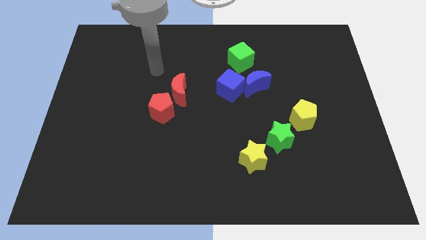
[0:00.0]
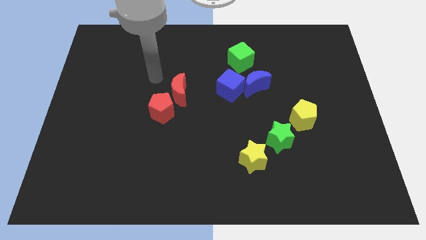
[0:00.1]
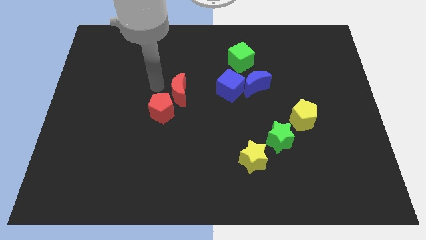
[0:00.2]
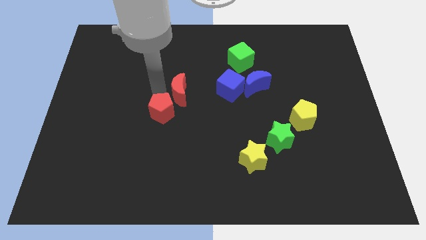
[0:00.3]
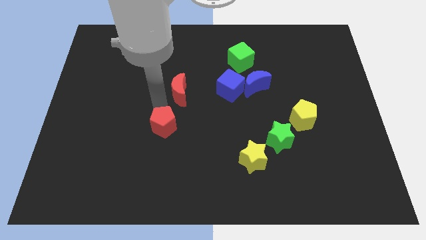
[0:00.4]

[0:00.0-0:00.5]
separate the red moon from the red pentagon

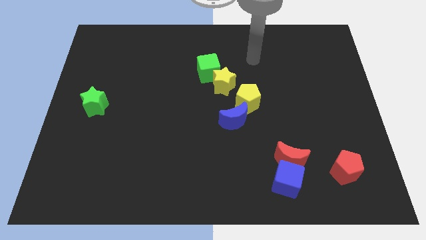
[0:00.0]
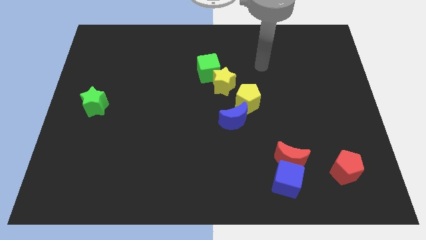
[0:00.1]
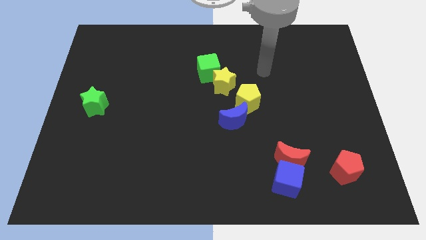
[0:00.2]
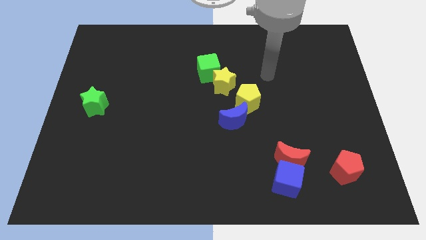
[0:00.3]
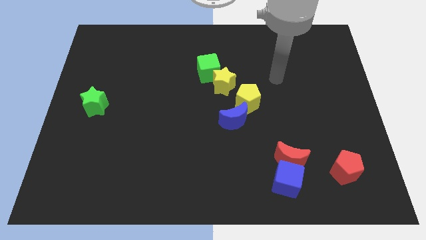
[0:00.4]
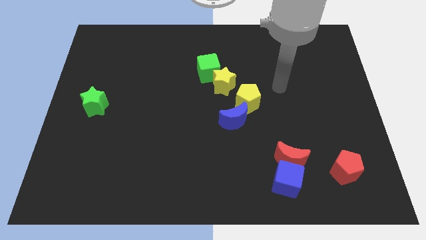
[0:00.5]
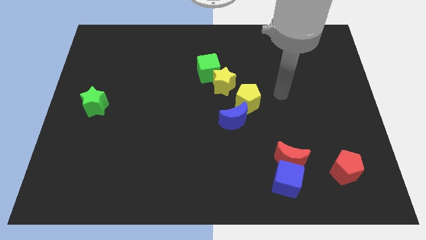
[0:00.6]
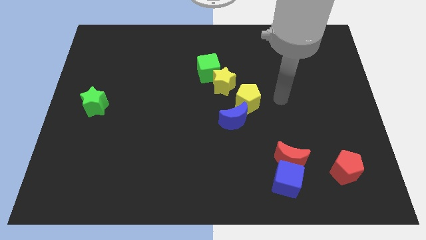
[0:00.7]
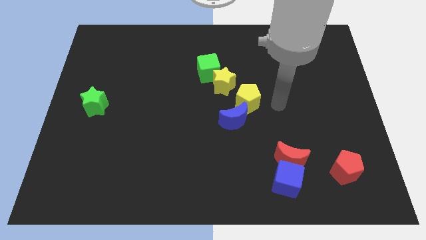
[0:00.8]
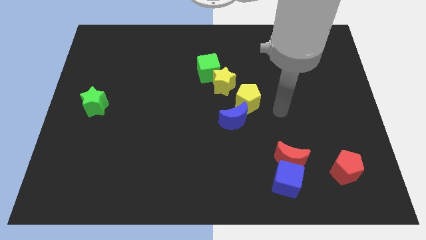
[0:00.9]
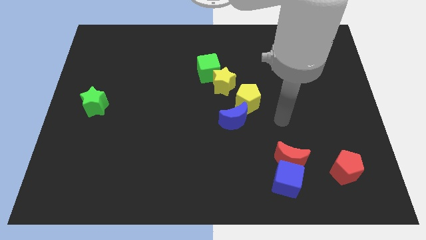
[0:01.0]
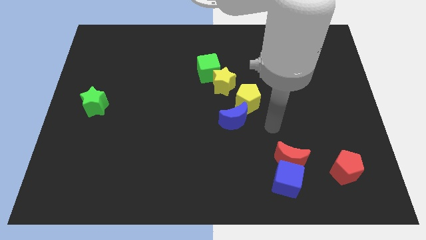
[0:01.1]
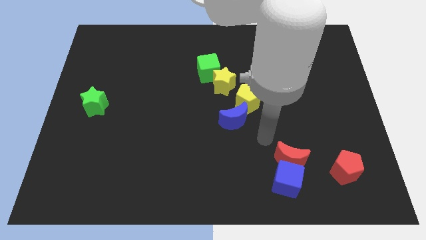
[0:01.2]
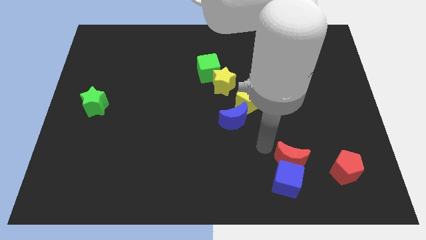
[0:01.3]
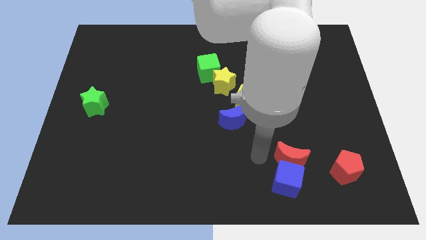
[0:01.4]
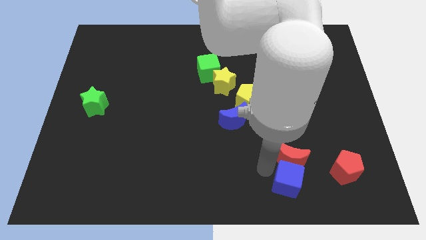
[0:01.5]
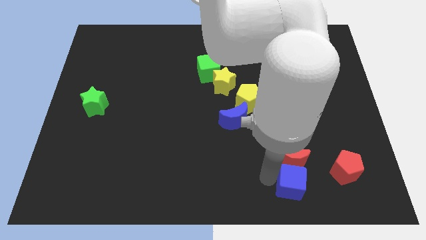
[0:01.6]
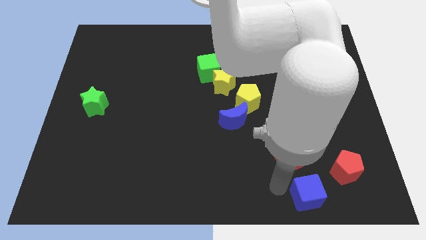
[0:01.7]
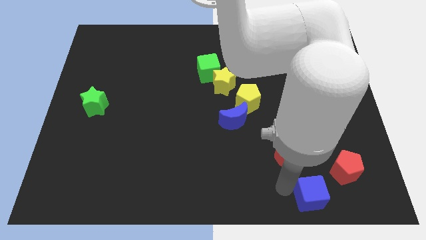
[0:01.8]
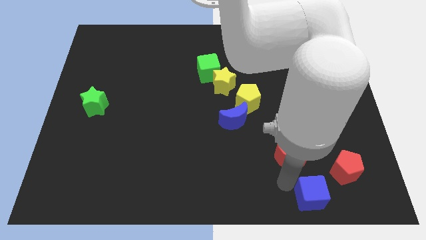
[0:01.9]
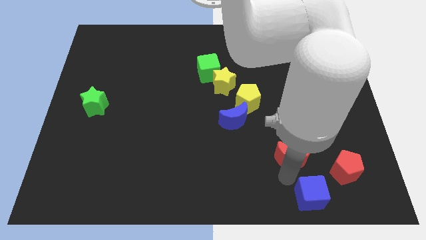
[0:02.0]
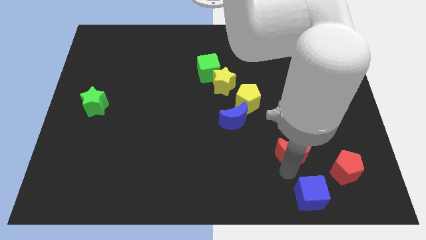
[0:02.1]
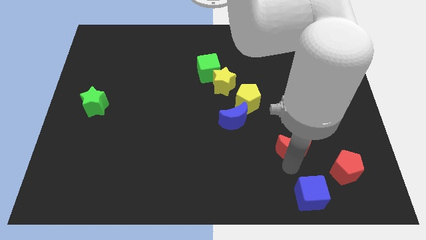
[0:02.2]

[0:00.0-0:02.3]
separate the red moon from the blue cube

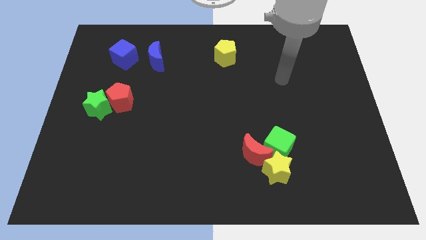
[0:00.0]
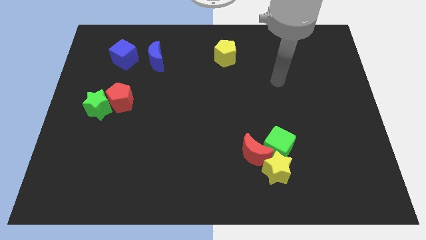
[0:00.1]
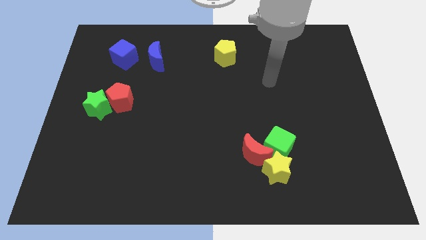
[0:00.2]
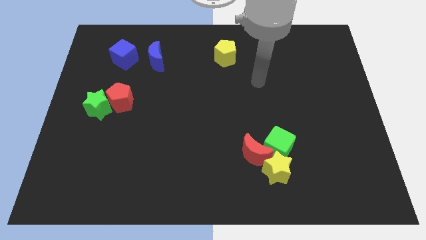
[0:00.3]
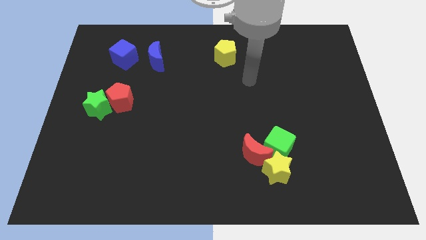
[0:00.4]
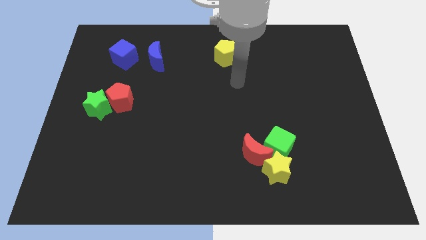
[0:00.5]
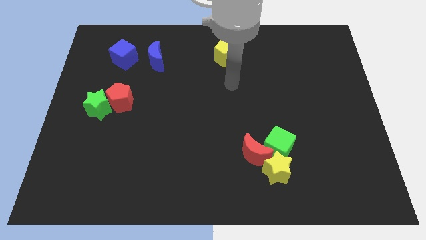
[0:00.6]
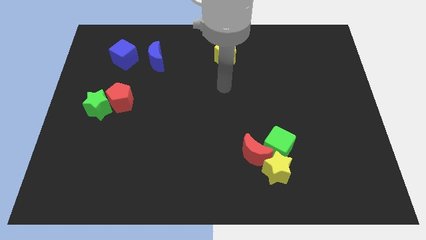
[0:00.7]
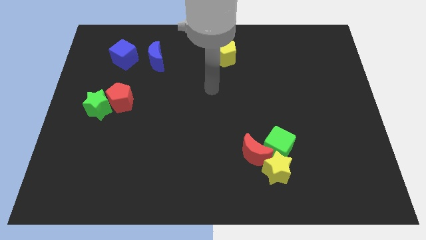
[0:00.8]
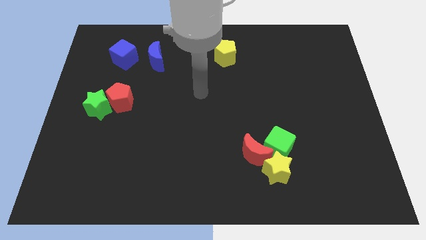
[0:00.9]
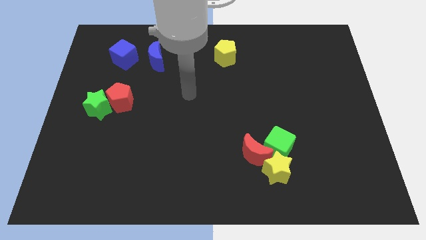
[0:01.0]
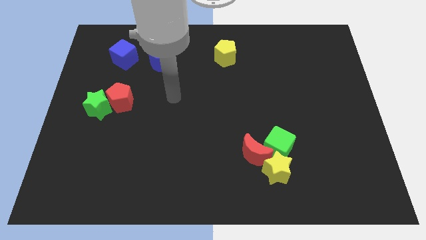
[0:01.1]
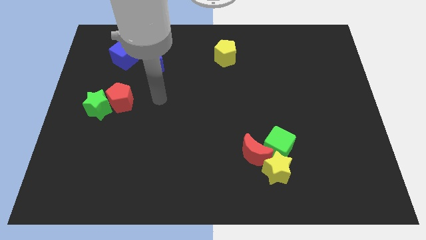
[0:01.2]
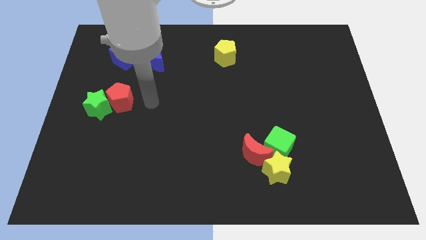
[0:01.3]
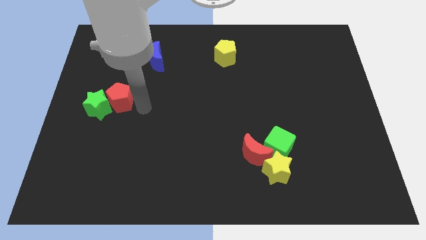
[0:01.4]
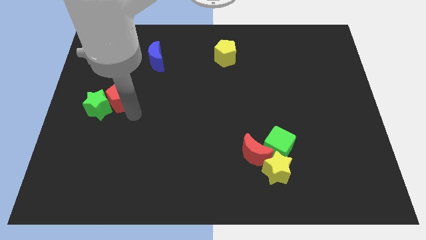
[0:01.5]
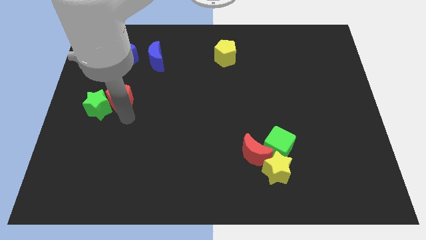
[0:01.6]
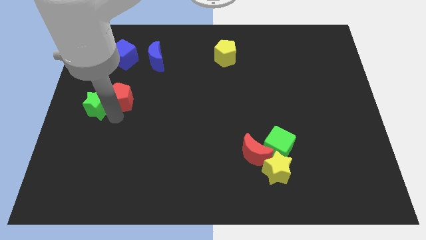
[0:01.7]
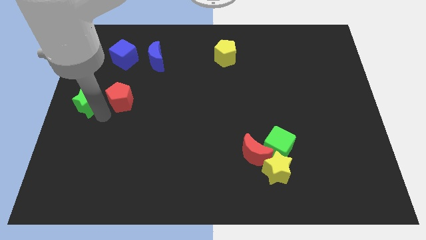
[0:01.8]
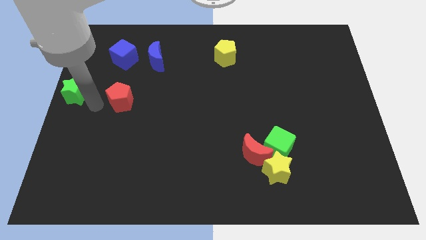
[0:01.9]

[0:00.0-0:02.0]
move the red pentagon away from the green star

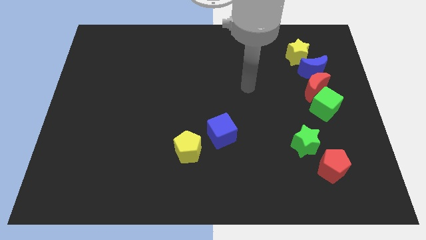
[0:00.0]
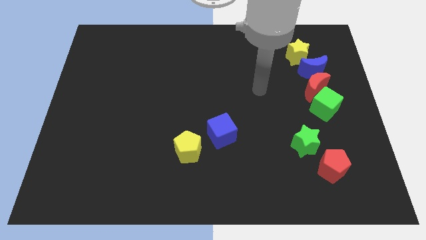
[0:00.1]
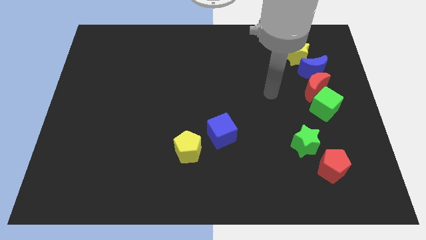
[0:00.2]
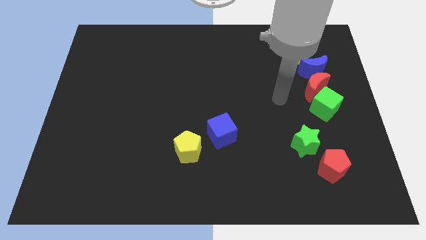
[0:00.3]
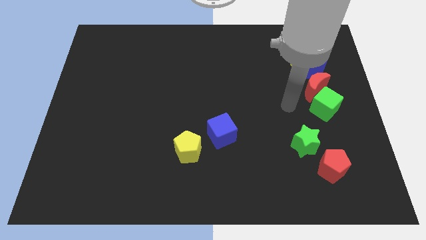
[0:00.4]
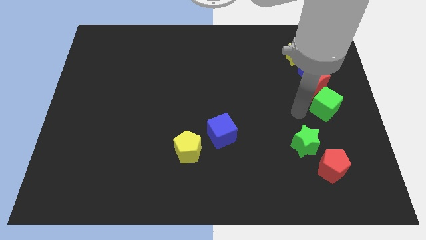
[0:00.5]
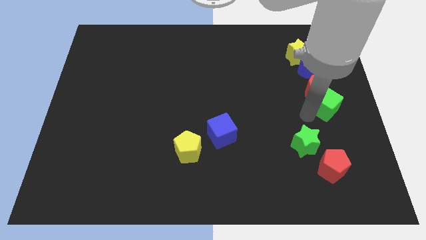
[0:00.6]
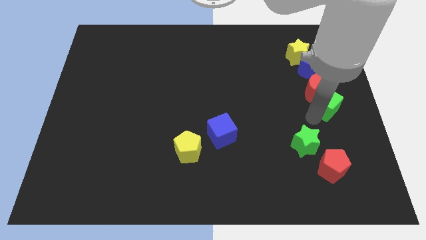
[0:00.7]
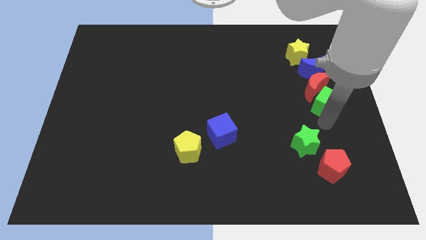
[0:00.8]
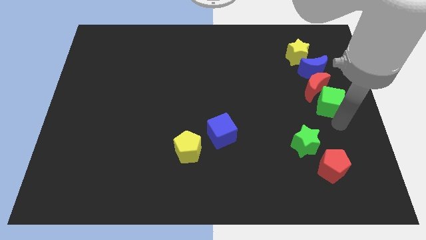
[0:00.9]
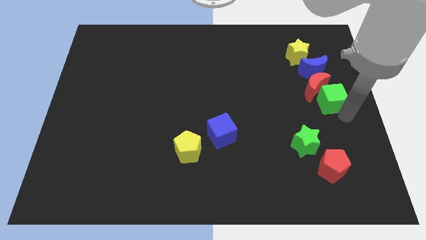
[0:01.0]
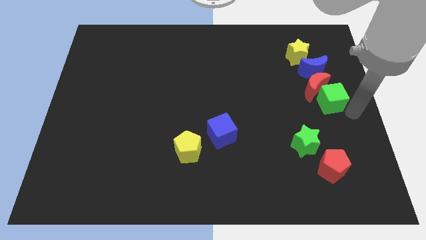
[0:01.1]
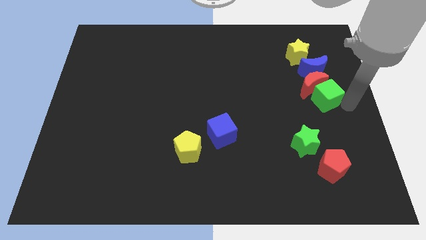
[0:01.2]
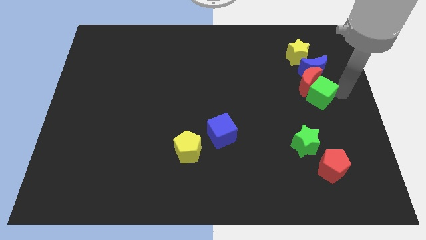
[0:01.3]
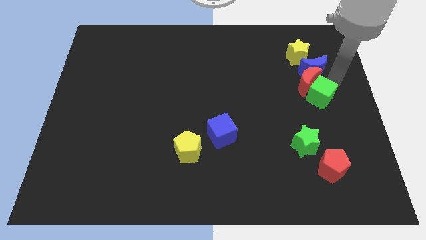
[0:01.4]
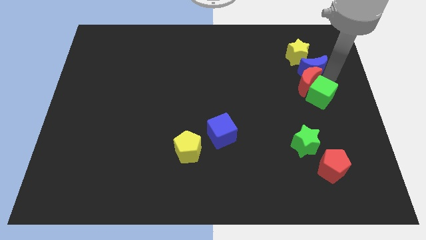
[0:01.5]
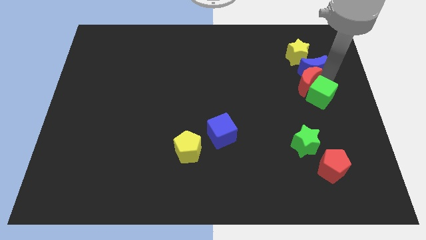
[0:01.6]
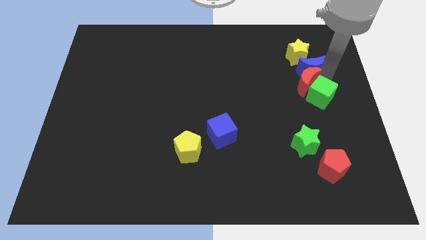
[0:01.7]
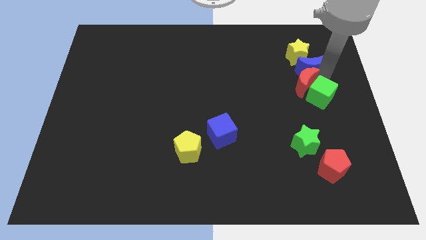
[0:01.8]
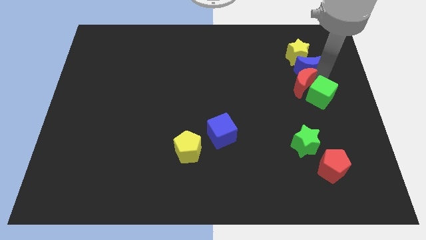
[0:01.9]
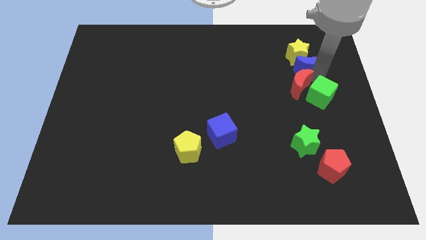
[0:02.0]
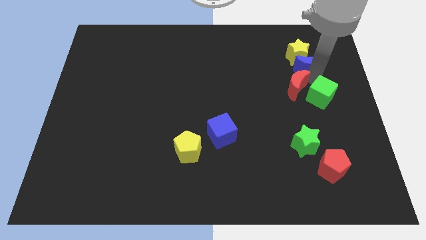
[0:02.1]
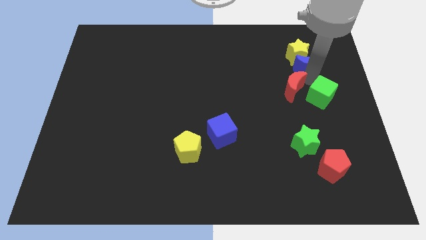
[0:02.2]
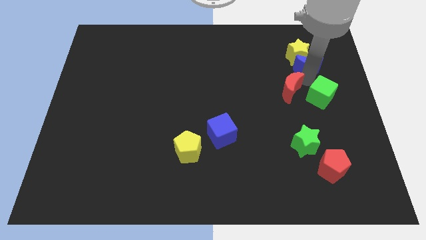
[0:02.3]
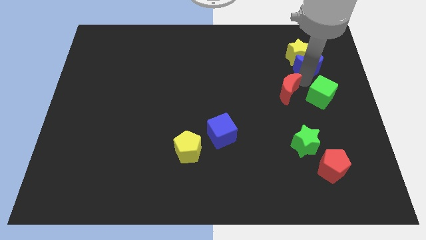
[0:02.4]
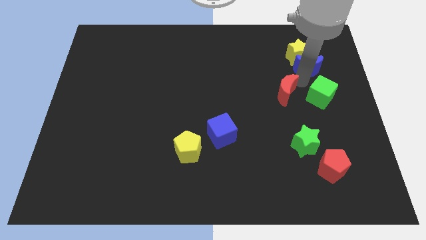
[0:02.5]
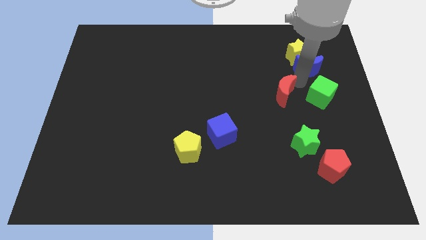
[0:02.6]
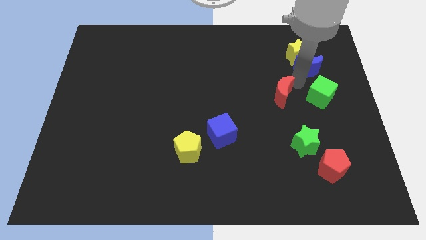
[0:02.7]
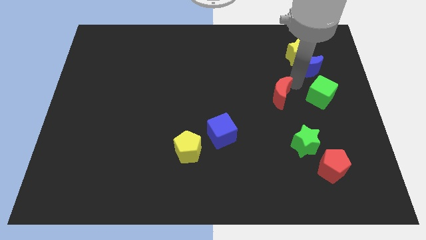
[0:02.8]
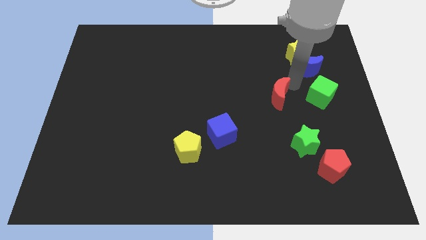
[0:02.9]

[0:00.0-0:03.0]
move the red moon away from the blue moon and green cube

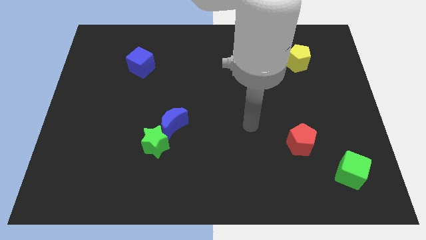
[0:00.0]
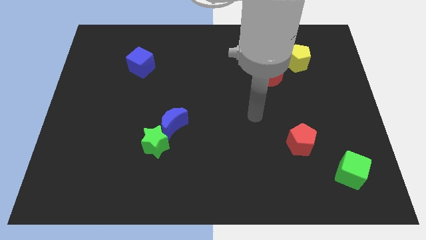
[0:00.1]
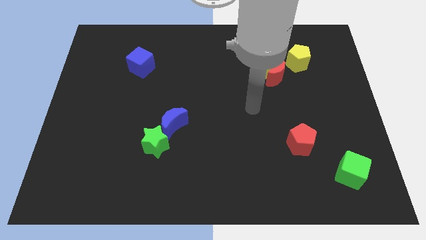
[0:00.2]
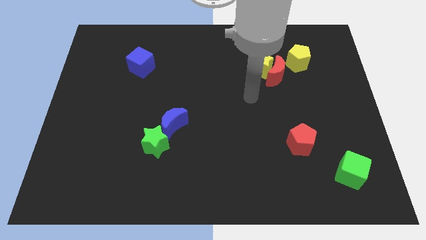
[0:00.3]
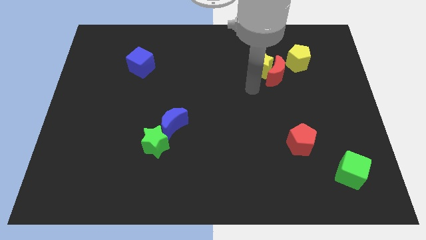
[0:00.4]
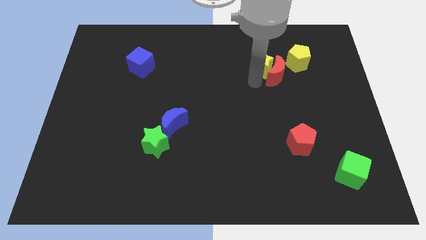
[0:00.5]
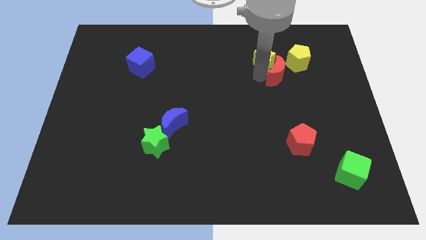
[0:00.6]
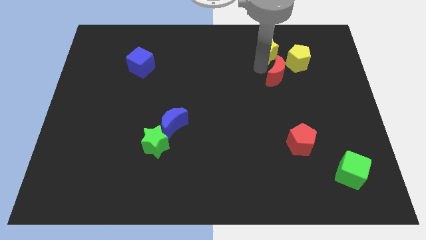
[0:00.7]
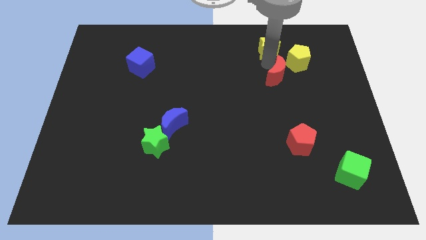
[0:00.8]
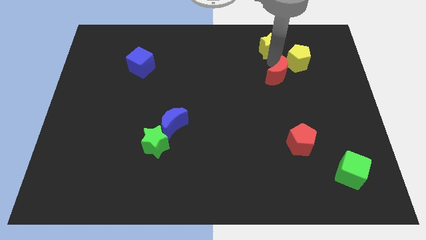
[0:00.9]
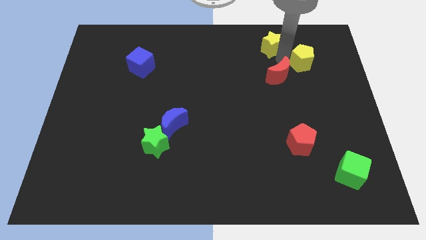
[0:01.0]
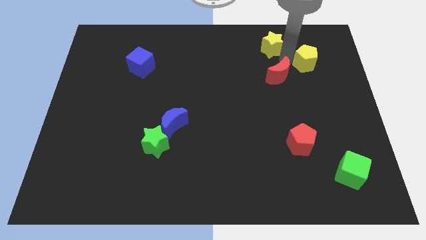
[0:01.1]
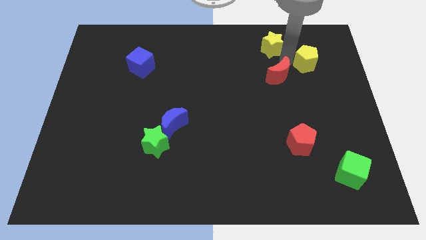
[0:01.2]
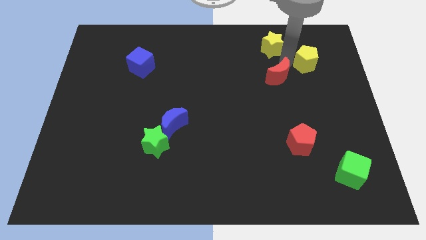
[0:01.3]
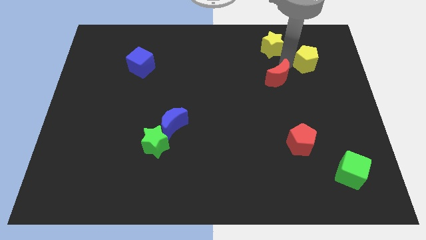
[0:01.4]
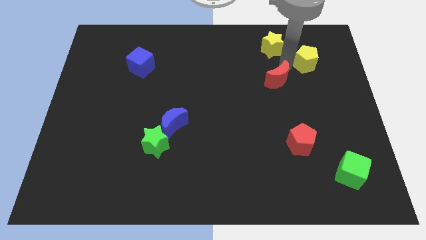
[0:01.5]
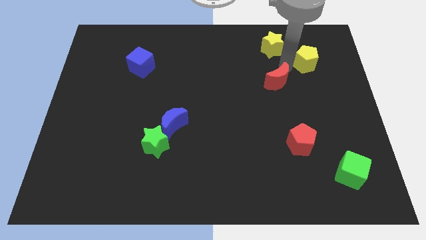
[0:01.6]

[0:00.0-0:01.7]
separate the red moon from the yellow star and yellow pentagon
